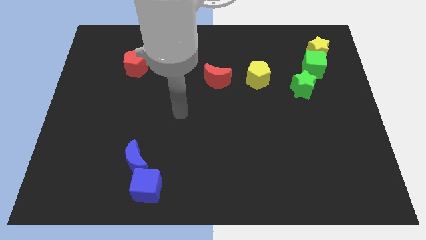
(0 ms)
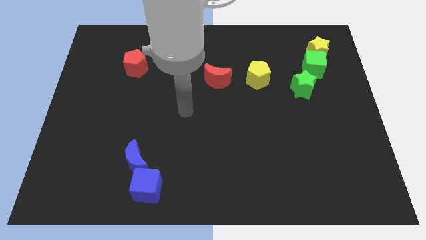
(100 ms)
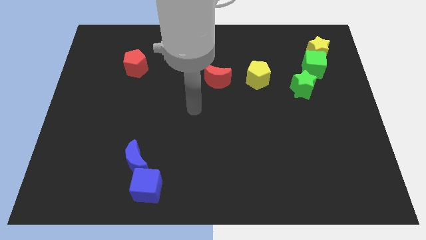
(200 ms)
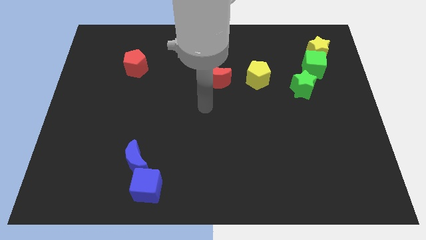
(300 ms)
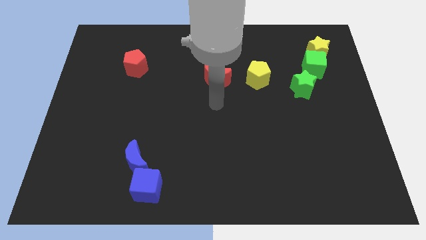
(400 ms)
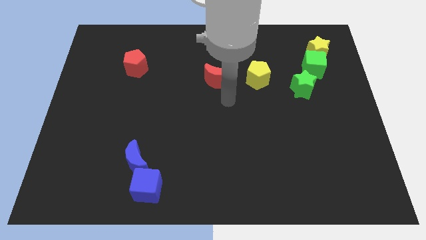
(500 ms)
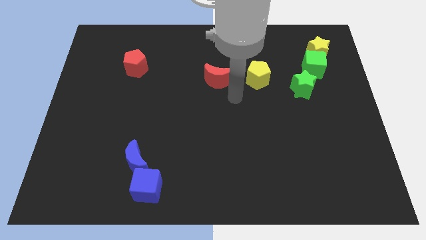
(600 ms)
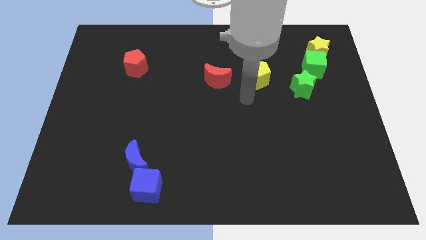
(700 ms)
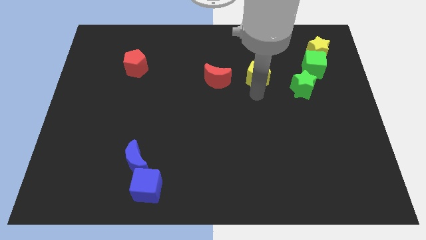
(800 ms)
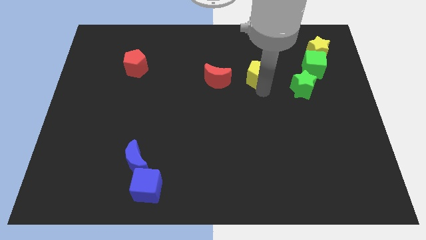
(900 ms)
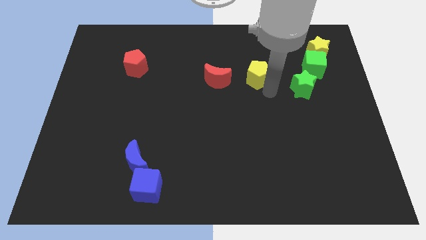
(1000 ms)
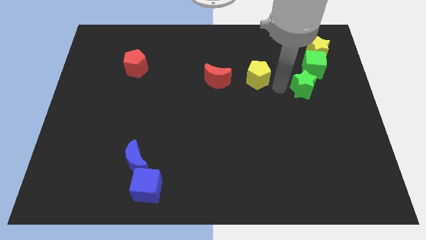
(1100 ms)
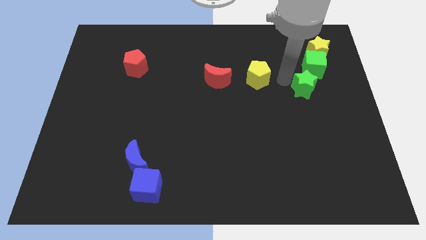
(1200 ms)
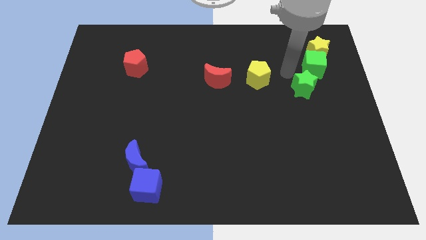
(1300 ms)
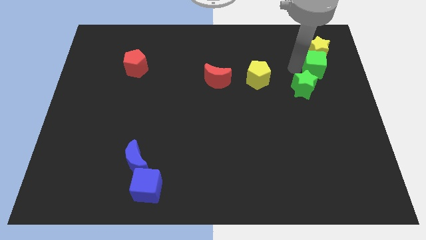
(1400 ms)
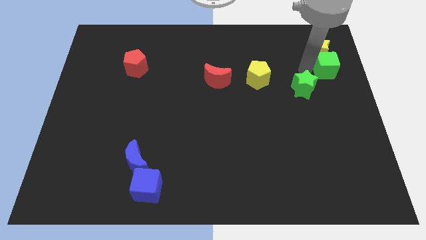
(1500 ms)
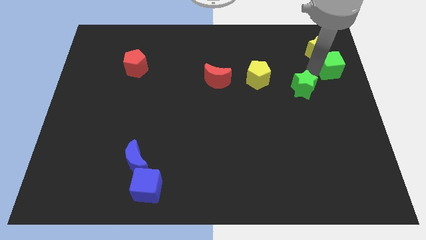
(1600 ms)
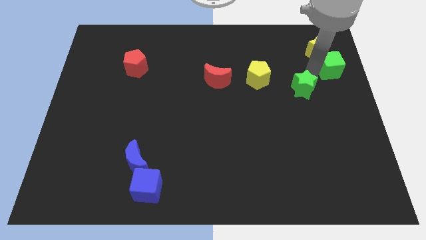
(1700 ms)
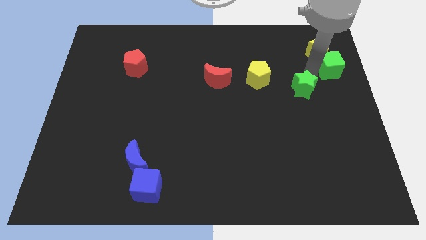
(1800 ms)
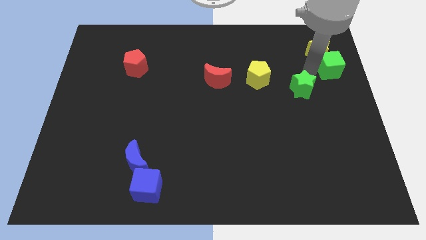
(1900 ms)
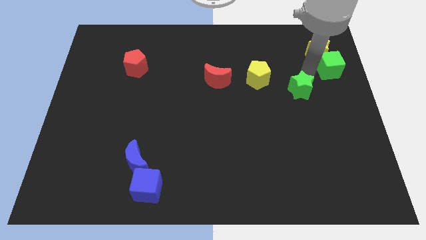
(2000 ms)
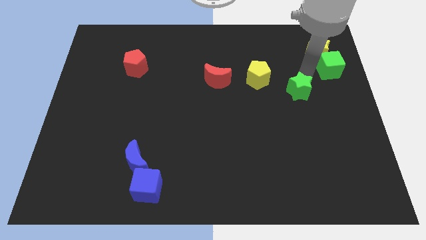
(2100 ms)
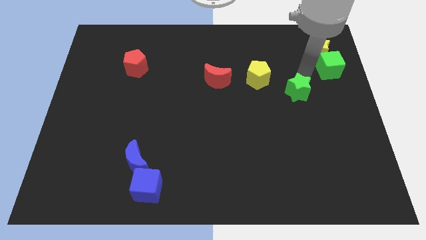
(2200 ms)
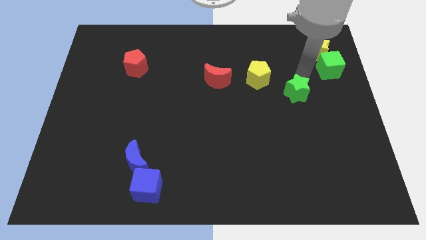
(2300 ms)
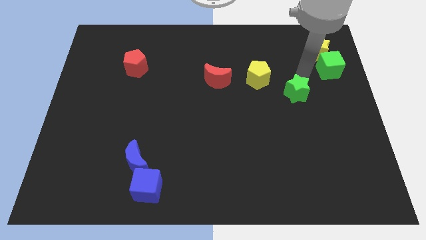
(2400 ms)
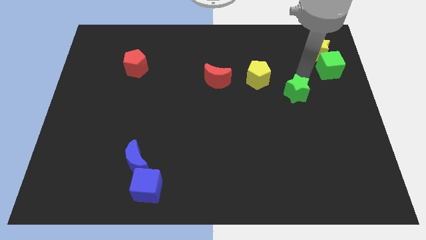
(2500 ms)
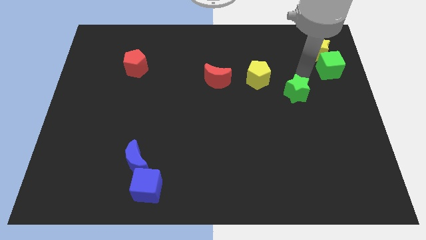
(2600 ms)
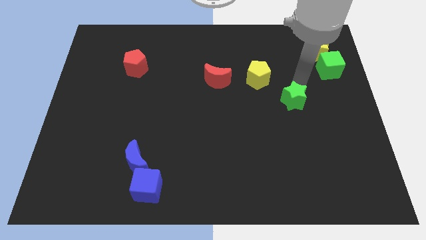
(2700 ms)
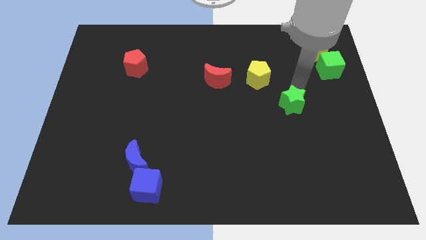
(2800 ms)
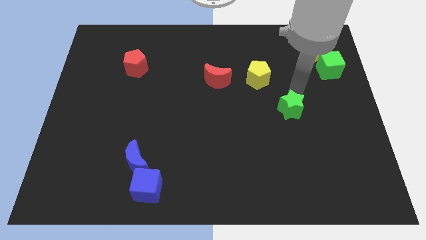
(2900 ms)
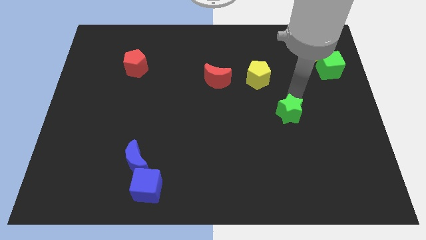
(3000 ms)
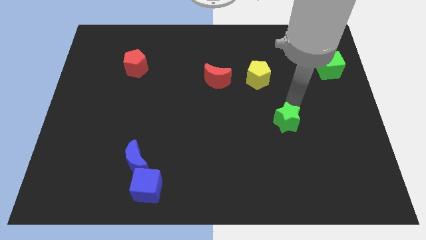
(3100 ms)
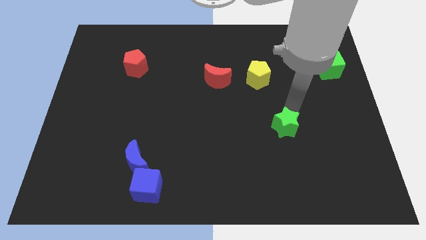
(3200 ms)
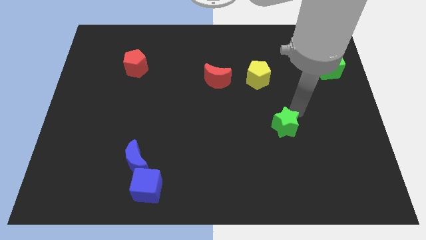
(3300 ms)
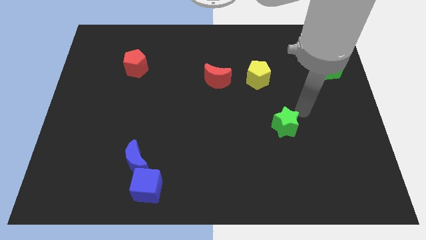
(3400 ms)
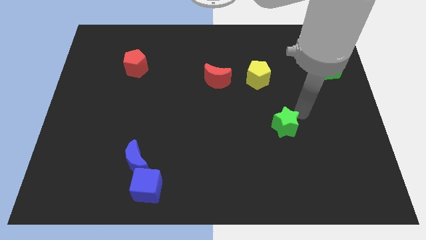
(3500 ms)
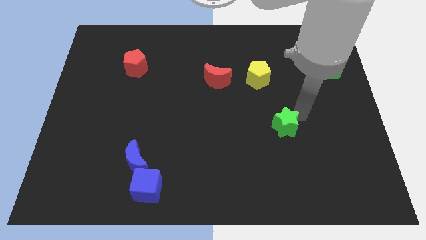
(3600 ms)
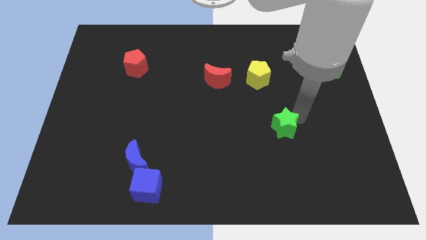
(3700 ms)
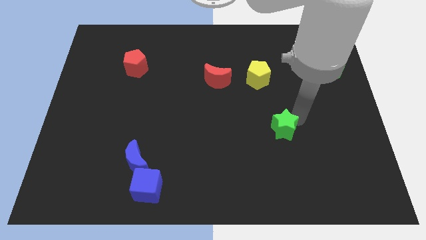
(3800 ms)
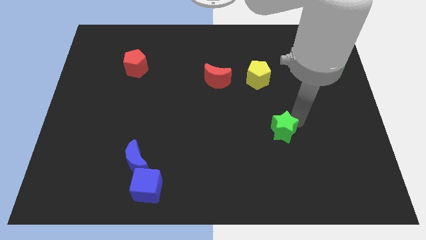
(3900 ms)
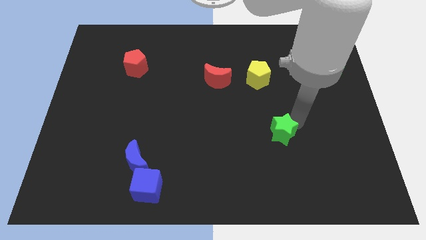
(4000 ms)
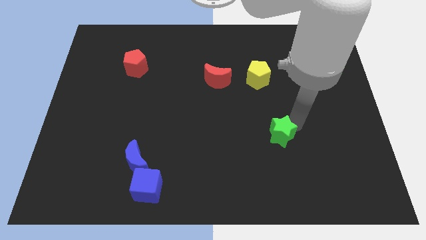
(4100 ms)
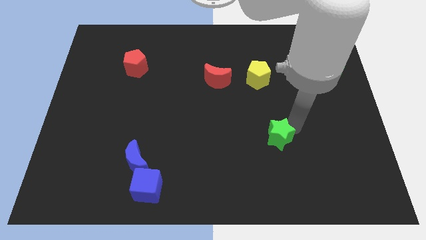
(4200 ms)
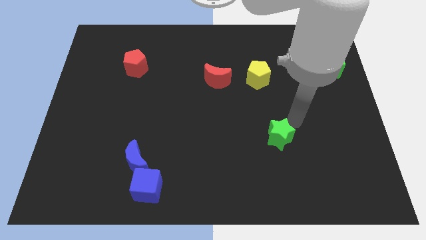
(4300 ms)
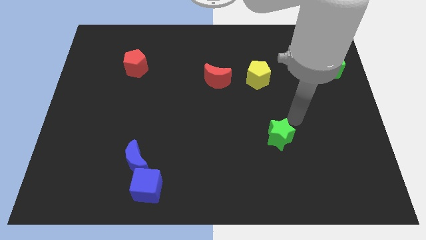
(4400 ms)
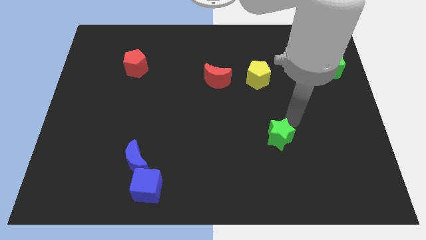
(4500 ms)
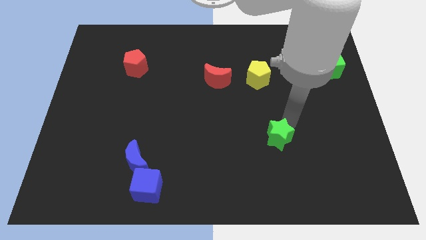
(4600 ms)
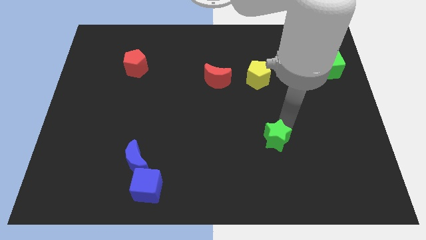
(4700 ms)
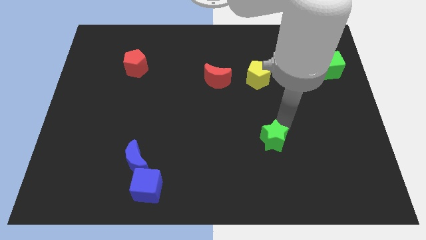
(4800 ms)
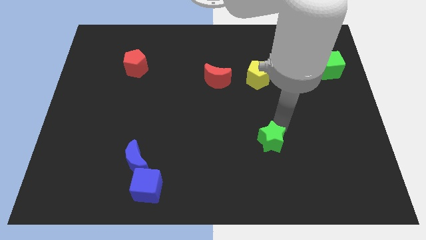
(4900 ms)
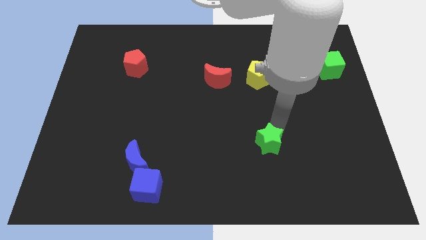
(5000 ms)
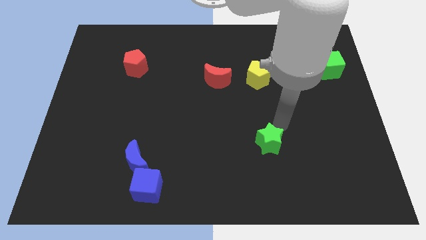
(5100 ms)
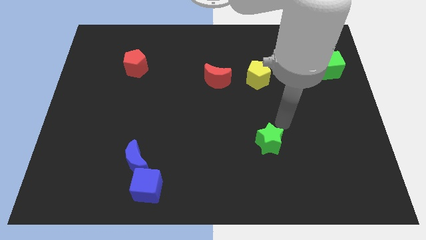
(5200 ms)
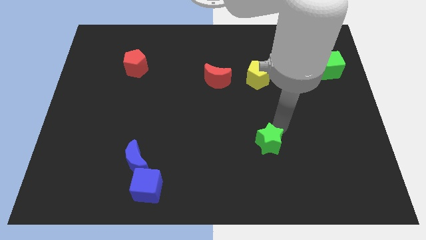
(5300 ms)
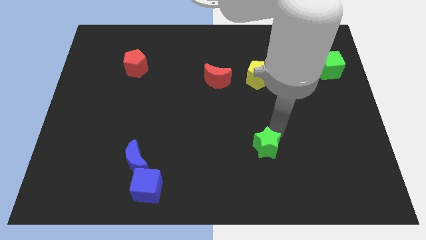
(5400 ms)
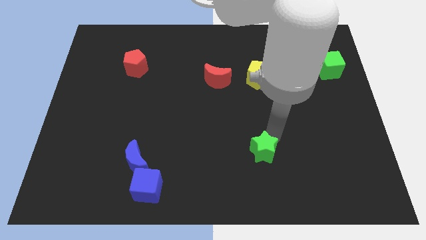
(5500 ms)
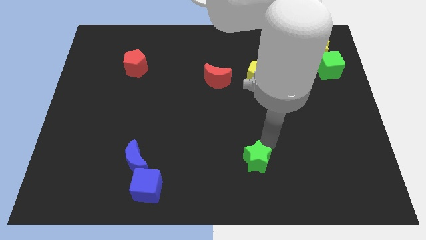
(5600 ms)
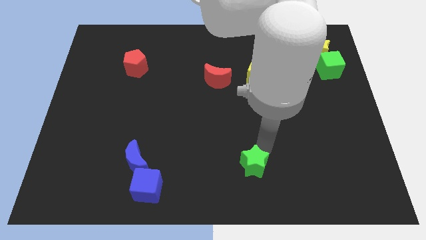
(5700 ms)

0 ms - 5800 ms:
put the green star to the bottom side

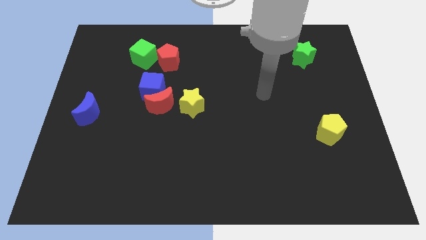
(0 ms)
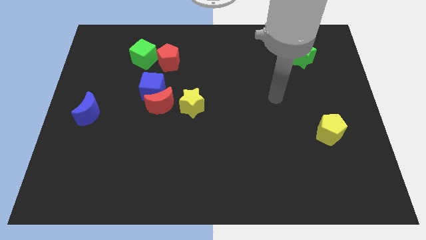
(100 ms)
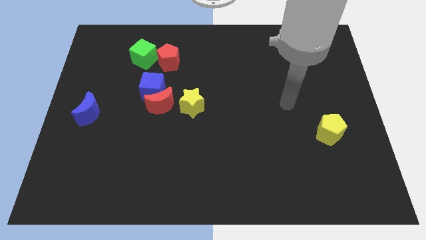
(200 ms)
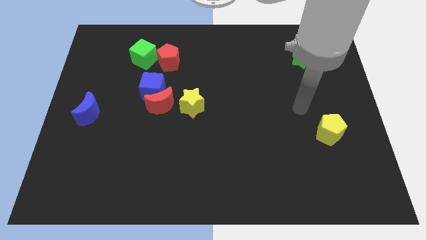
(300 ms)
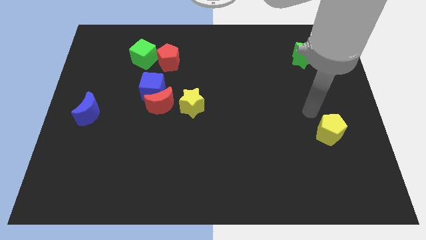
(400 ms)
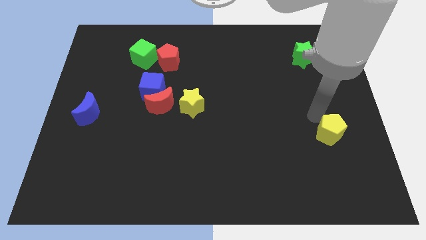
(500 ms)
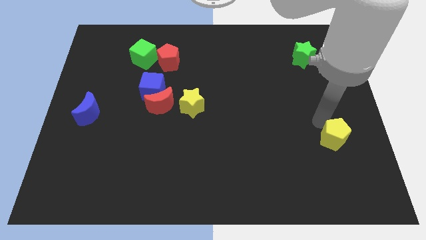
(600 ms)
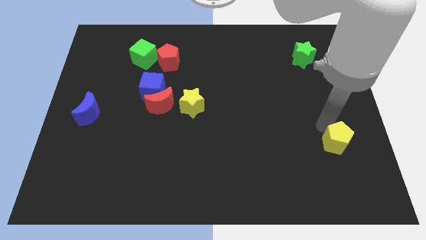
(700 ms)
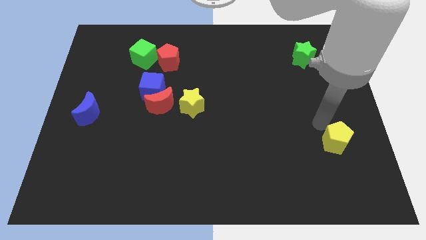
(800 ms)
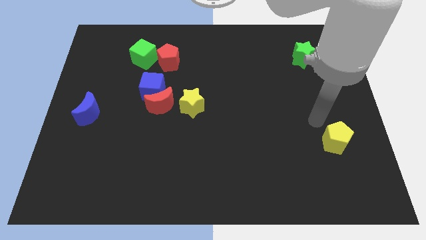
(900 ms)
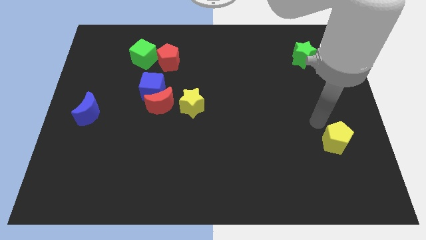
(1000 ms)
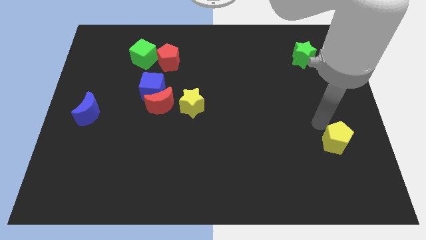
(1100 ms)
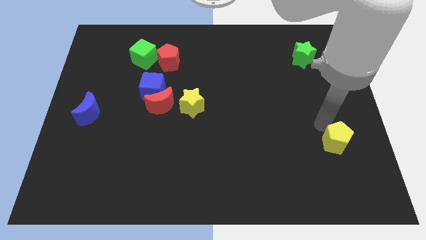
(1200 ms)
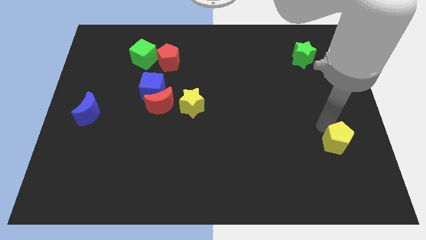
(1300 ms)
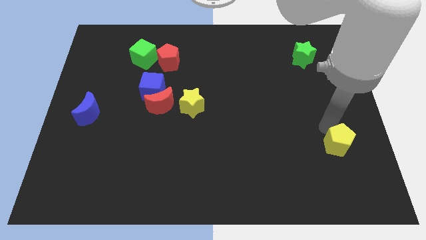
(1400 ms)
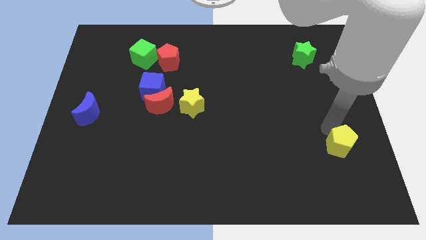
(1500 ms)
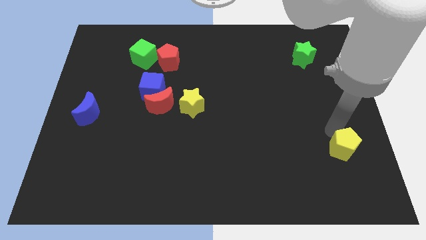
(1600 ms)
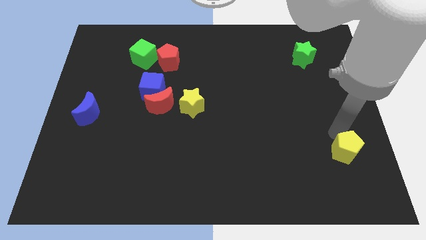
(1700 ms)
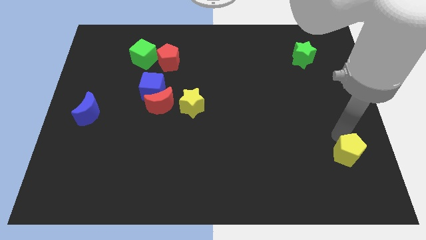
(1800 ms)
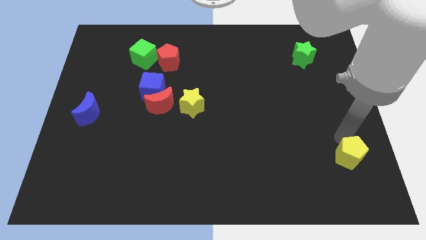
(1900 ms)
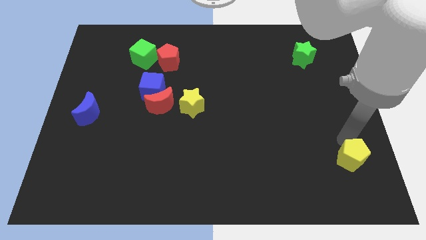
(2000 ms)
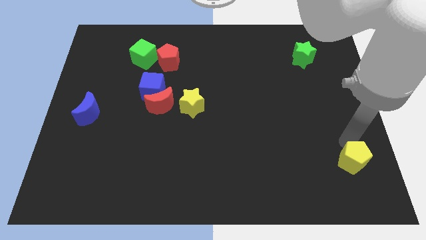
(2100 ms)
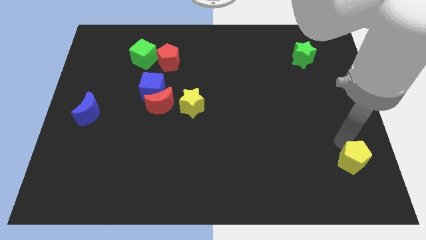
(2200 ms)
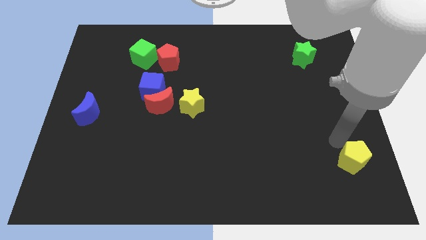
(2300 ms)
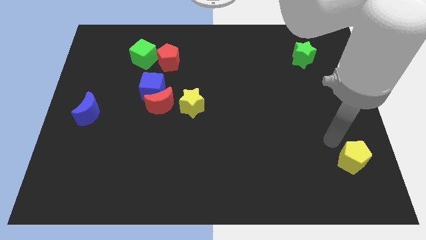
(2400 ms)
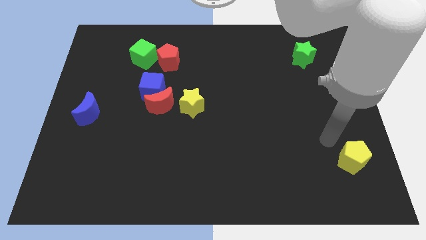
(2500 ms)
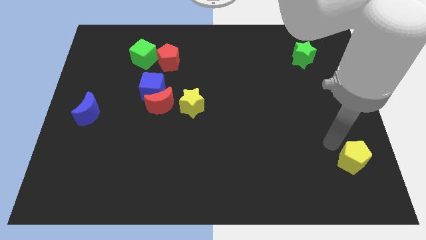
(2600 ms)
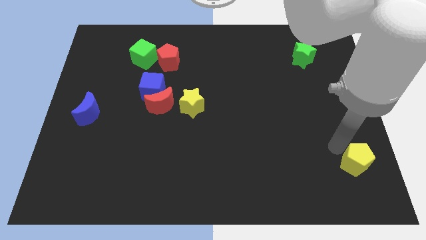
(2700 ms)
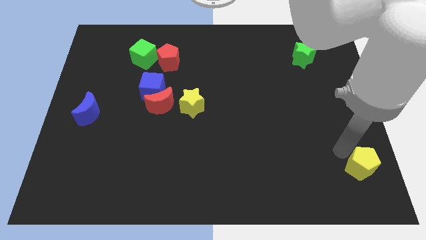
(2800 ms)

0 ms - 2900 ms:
put the yellow pentagon to the bottom right of the board
